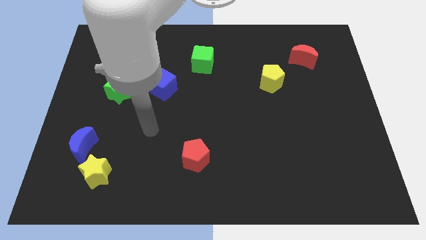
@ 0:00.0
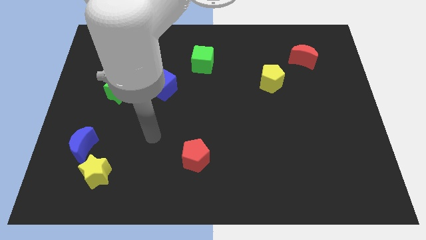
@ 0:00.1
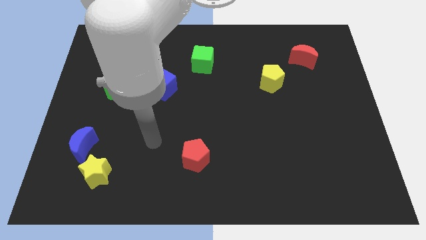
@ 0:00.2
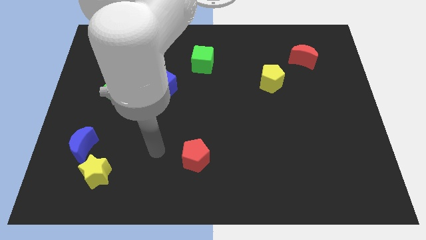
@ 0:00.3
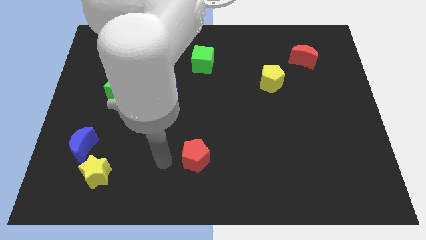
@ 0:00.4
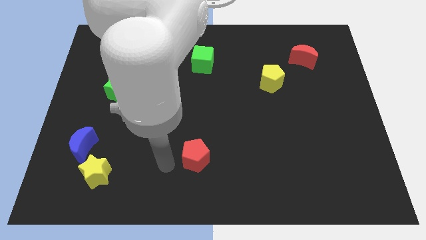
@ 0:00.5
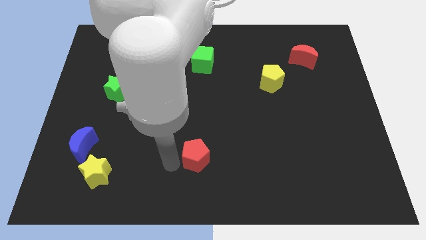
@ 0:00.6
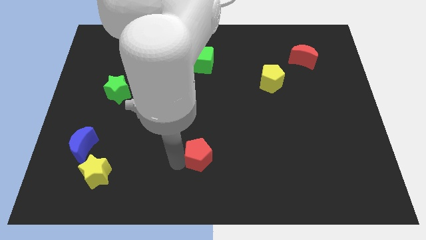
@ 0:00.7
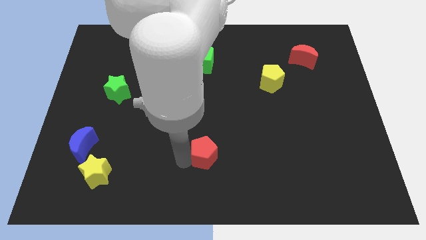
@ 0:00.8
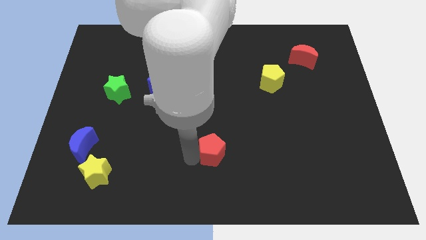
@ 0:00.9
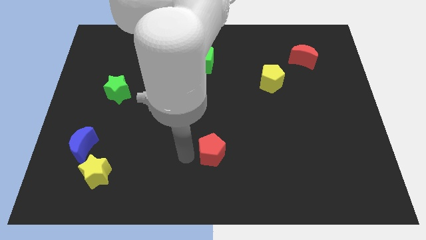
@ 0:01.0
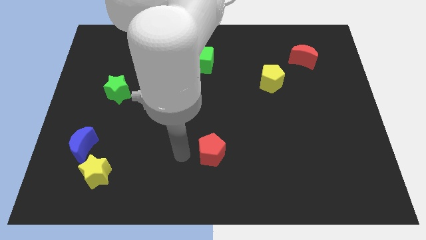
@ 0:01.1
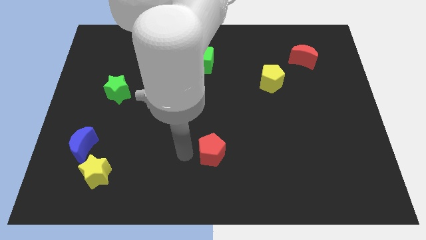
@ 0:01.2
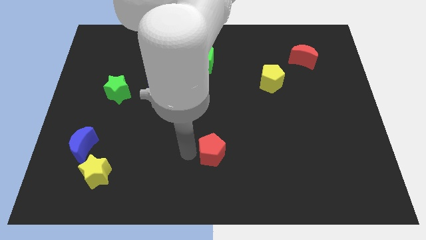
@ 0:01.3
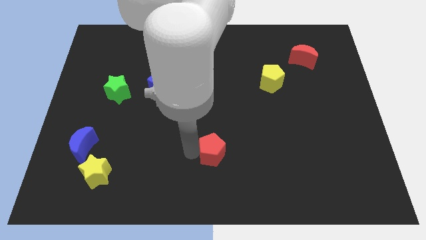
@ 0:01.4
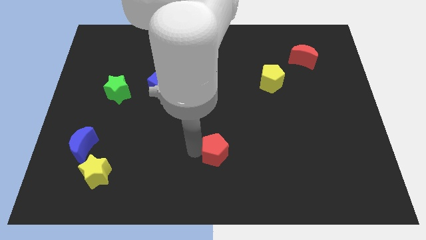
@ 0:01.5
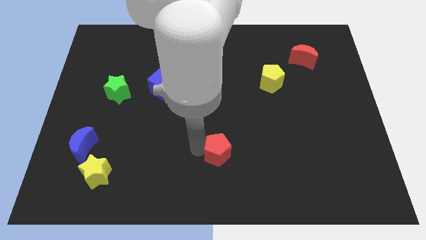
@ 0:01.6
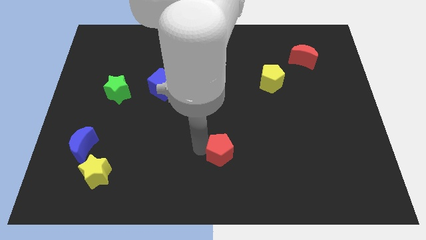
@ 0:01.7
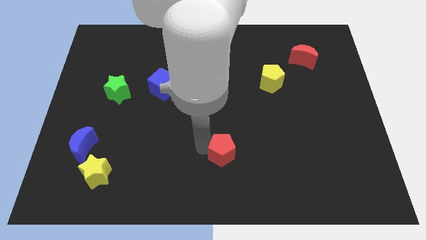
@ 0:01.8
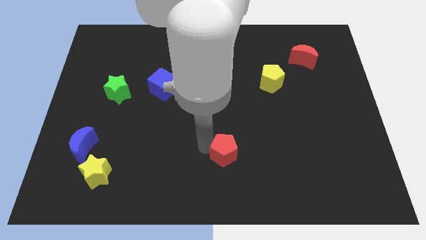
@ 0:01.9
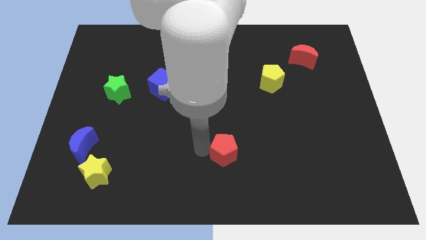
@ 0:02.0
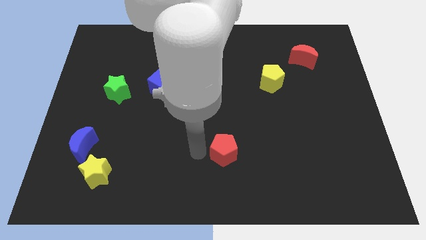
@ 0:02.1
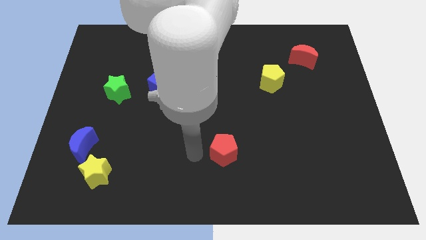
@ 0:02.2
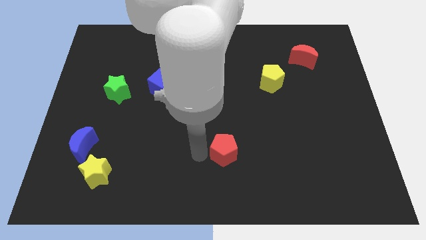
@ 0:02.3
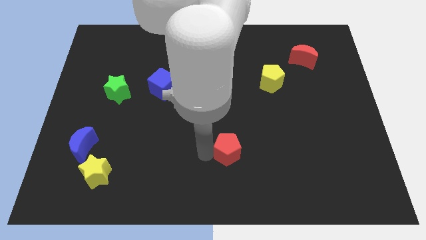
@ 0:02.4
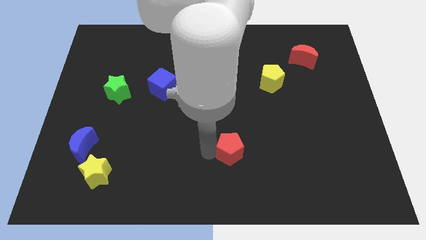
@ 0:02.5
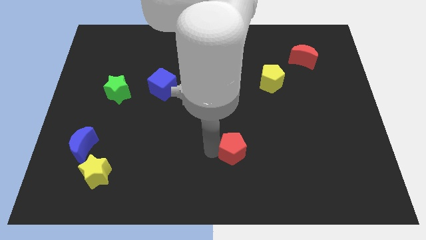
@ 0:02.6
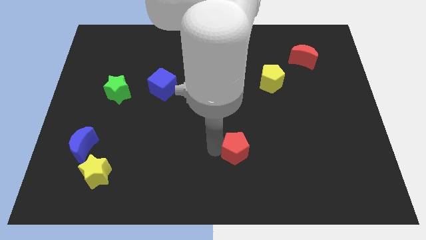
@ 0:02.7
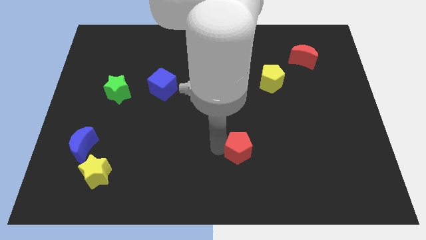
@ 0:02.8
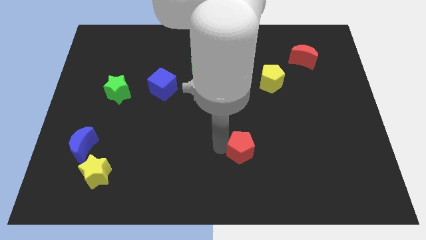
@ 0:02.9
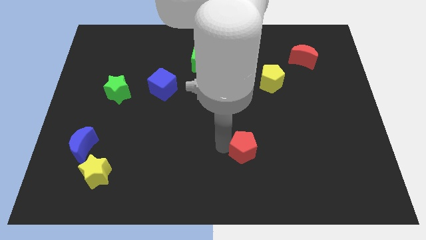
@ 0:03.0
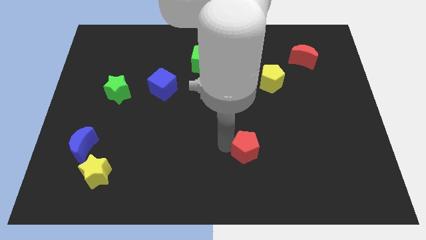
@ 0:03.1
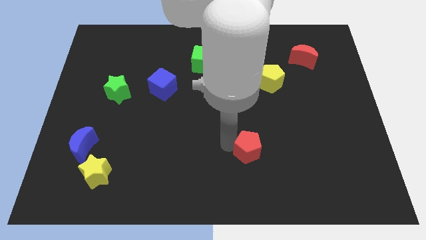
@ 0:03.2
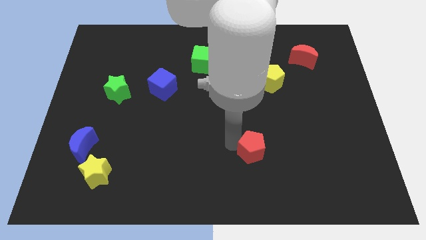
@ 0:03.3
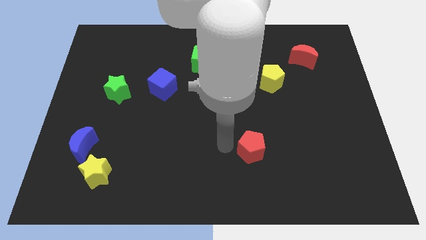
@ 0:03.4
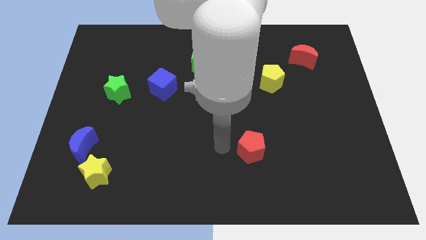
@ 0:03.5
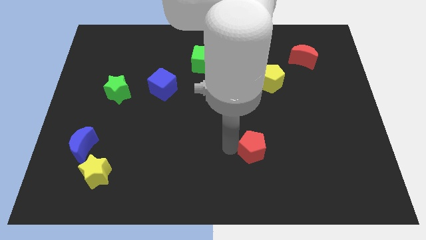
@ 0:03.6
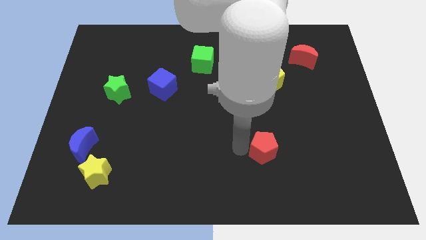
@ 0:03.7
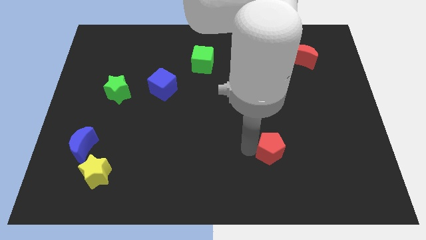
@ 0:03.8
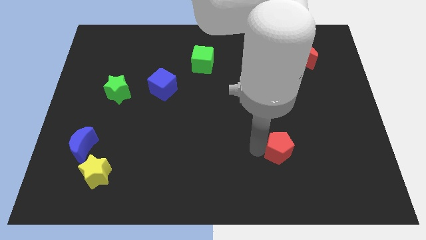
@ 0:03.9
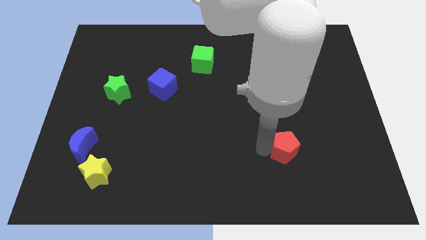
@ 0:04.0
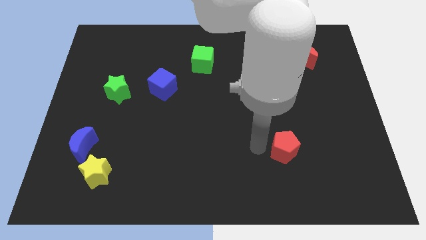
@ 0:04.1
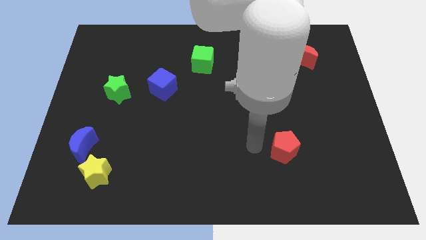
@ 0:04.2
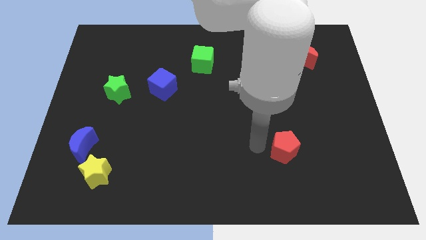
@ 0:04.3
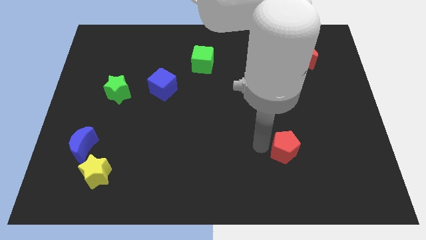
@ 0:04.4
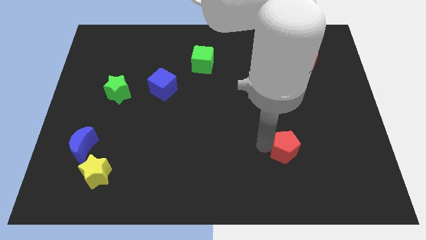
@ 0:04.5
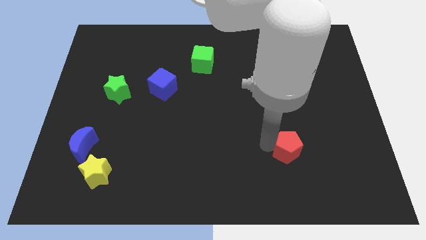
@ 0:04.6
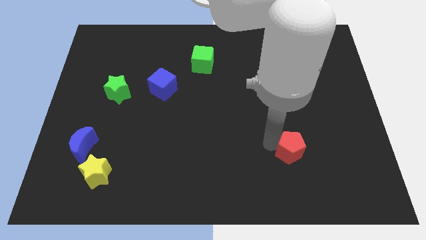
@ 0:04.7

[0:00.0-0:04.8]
slide the red pentagon to the right

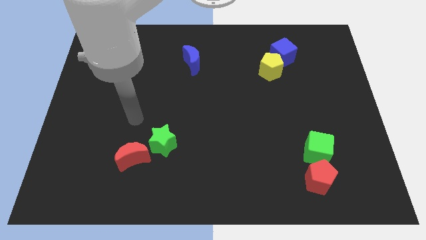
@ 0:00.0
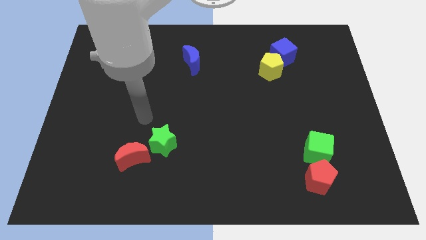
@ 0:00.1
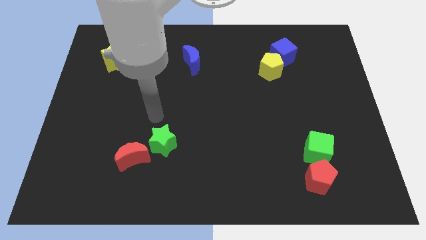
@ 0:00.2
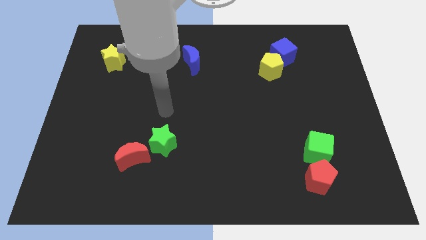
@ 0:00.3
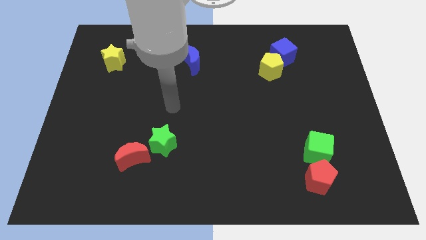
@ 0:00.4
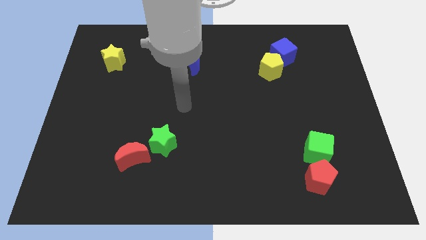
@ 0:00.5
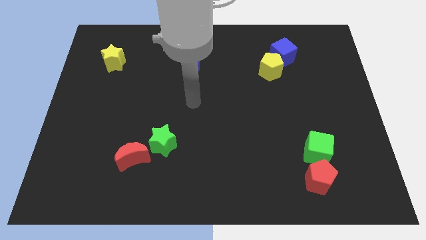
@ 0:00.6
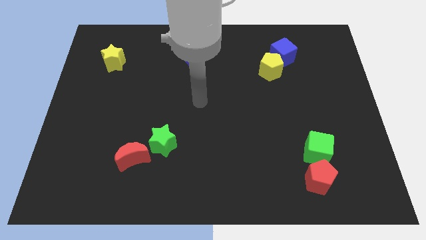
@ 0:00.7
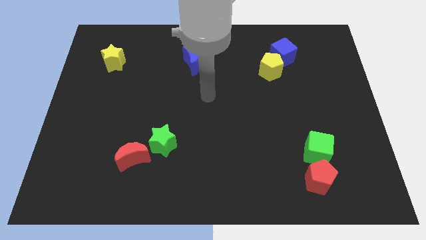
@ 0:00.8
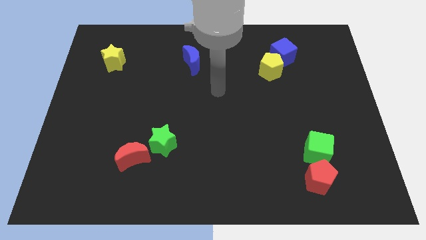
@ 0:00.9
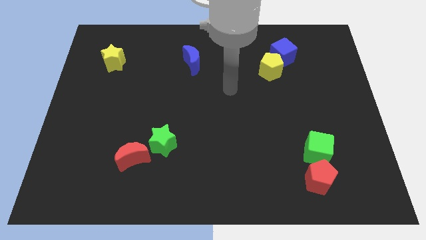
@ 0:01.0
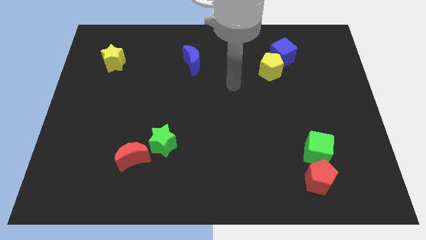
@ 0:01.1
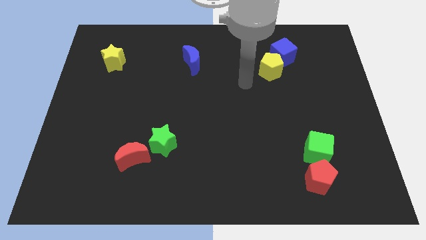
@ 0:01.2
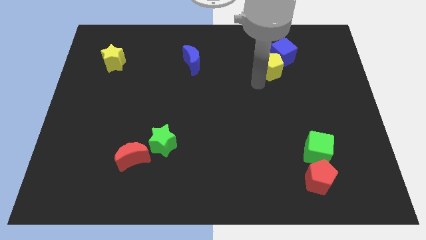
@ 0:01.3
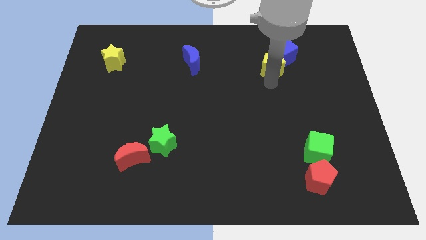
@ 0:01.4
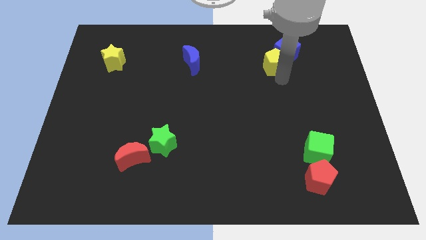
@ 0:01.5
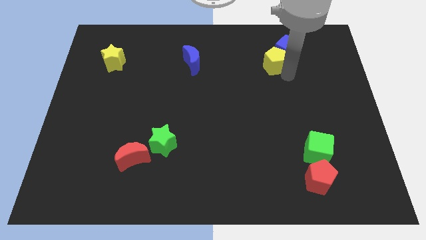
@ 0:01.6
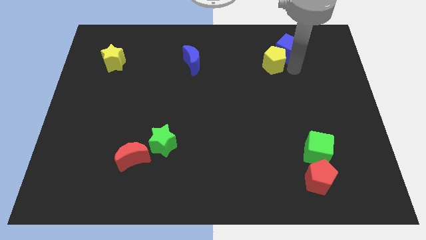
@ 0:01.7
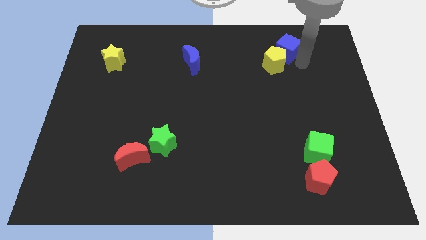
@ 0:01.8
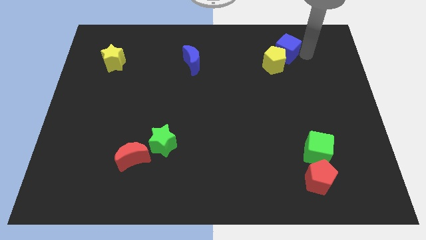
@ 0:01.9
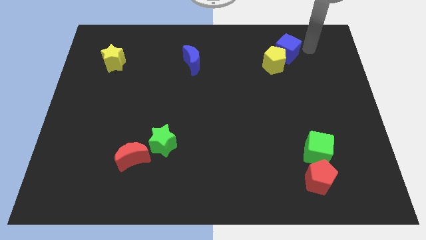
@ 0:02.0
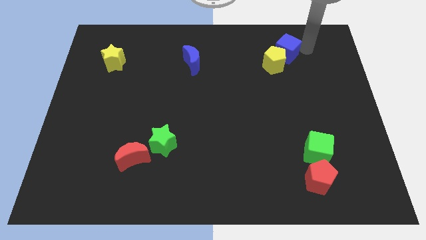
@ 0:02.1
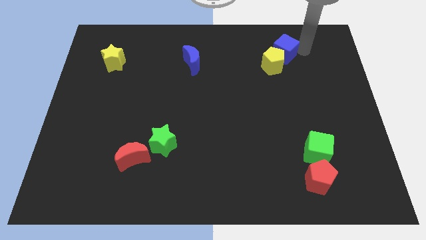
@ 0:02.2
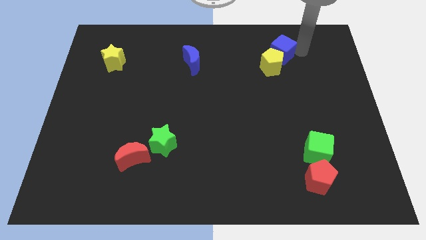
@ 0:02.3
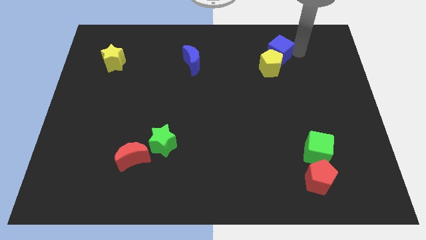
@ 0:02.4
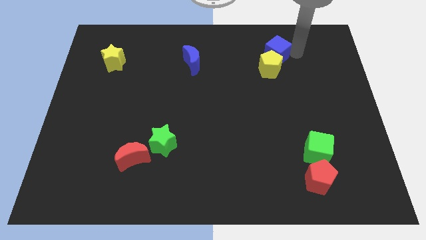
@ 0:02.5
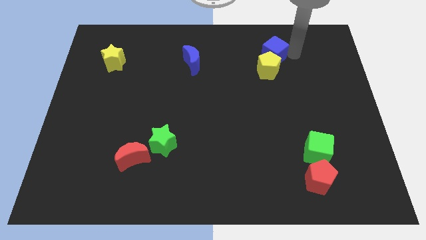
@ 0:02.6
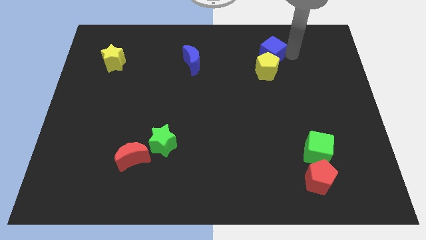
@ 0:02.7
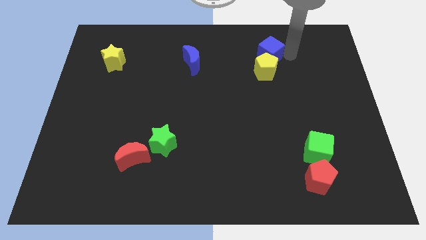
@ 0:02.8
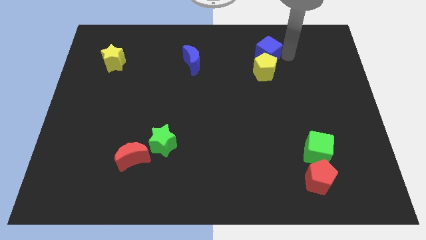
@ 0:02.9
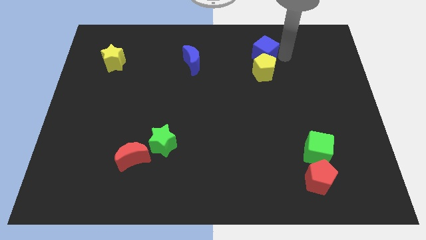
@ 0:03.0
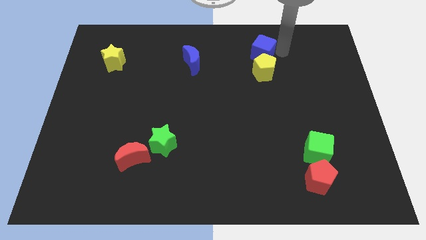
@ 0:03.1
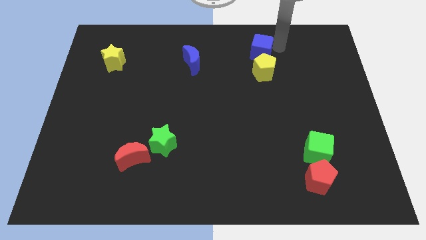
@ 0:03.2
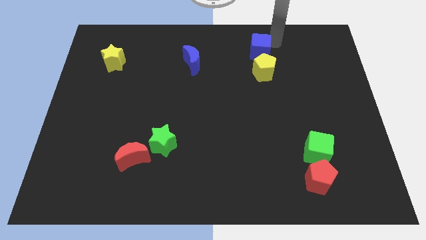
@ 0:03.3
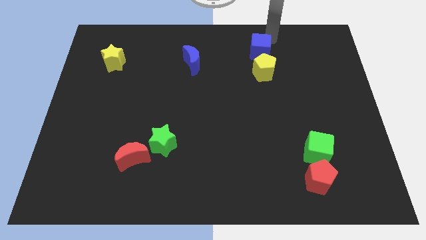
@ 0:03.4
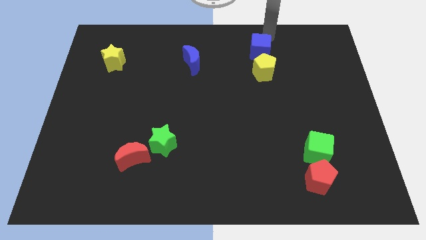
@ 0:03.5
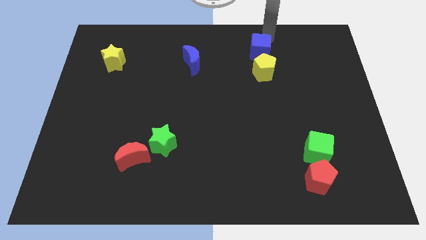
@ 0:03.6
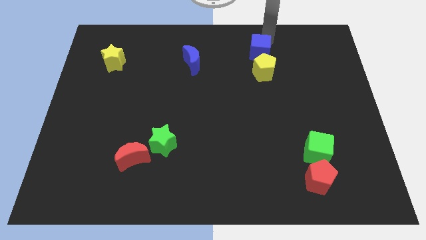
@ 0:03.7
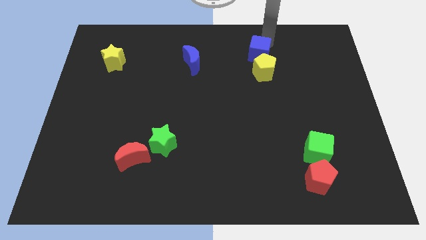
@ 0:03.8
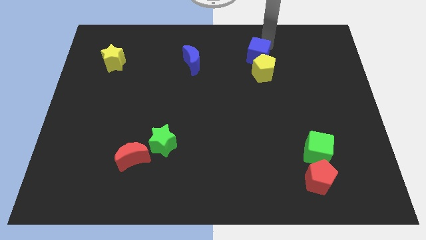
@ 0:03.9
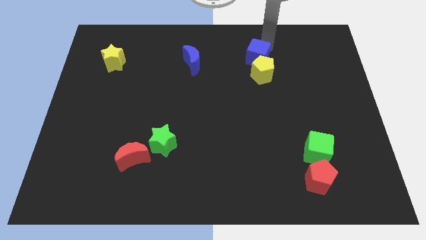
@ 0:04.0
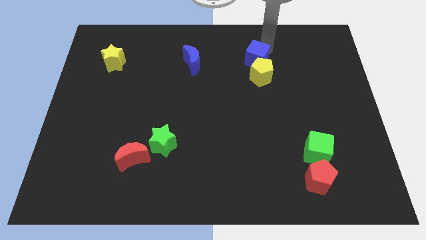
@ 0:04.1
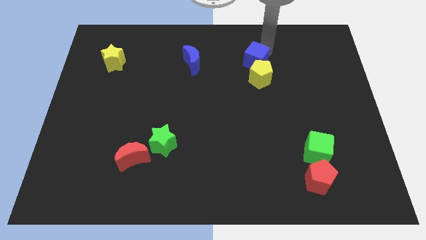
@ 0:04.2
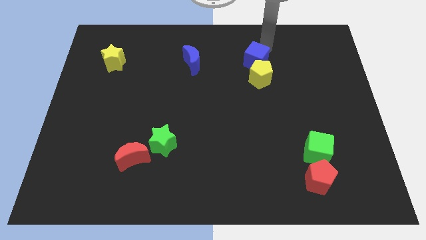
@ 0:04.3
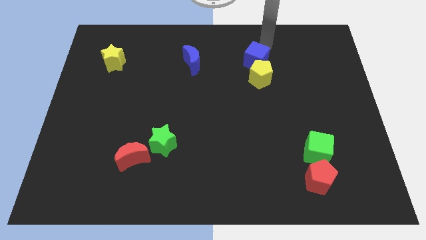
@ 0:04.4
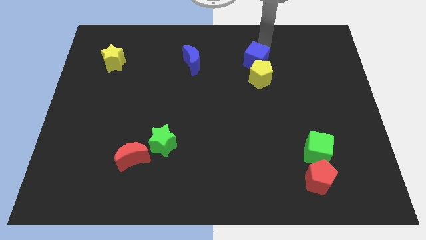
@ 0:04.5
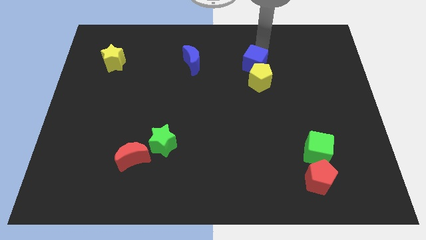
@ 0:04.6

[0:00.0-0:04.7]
push the blue cube a bit down and then left
